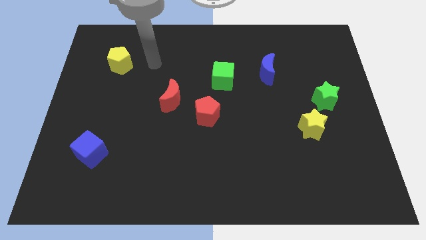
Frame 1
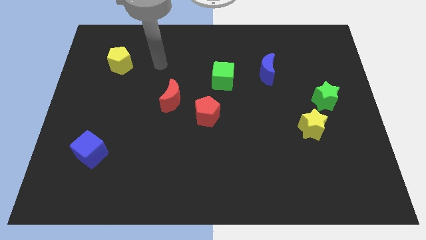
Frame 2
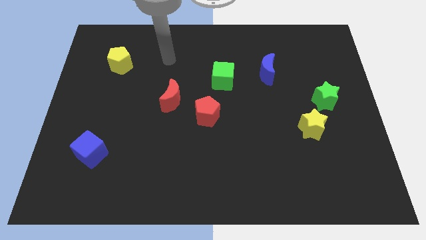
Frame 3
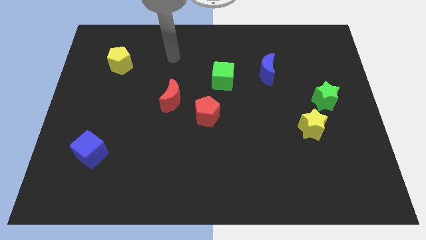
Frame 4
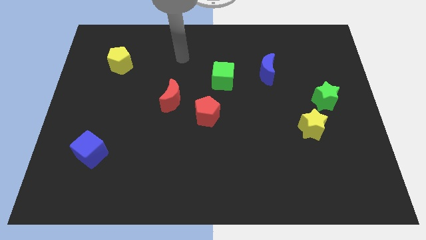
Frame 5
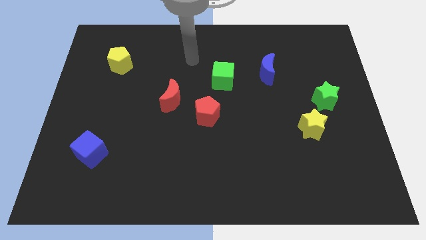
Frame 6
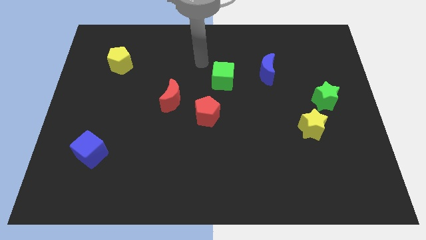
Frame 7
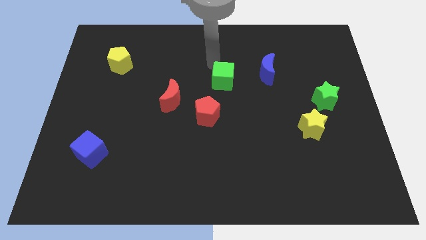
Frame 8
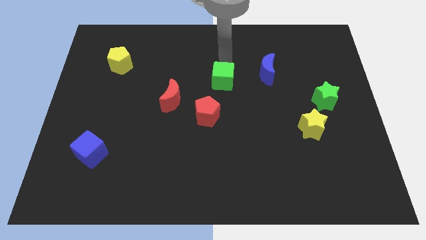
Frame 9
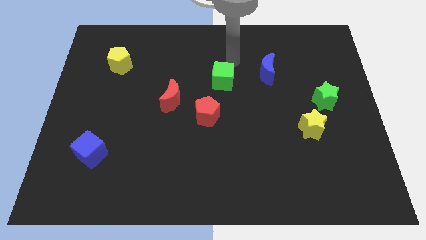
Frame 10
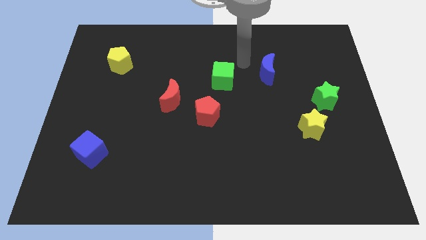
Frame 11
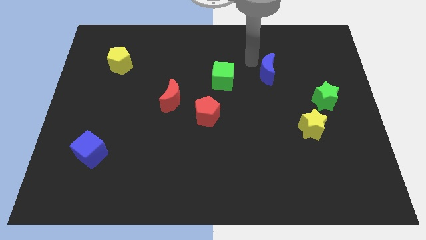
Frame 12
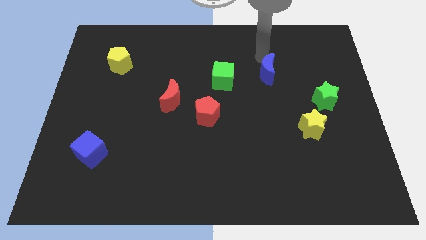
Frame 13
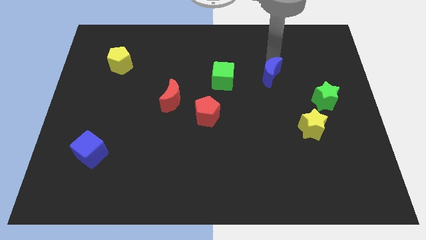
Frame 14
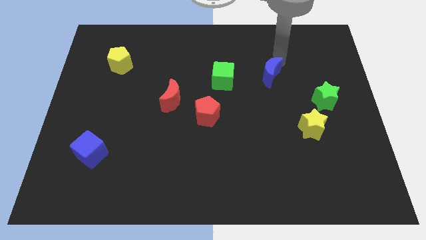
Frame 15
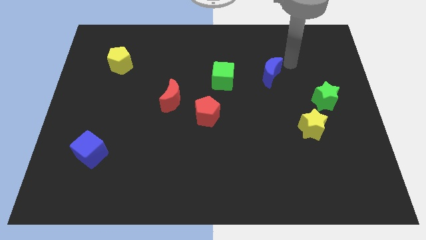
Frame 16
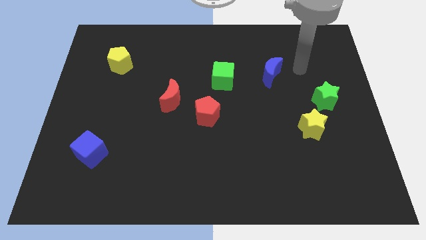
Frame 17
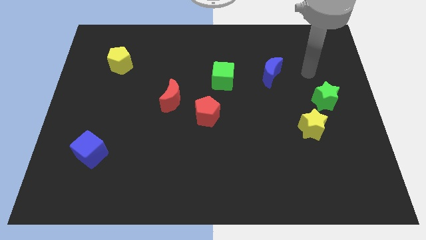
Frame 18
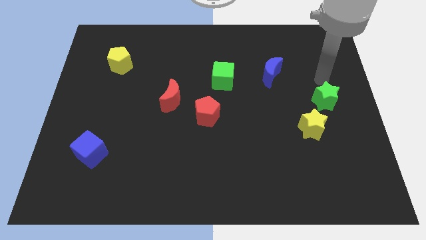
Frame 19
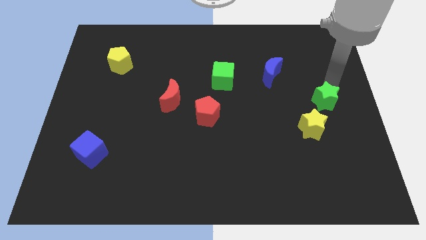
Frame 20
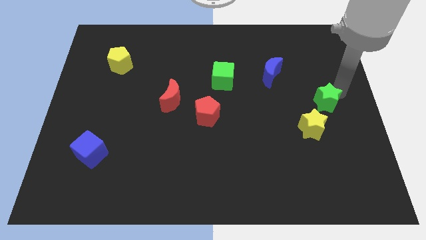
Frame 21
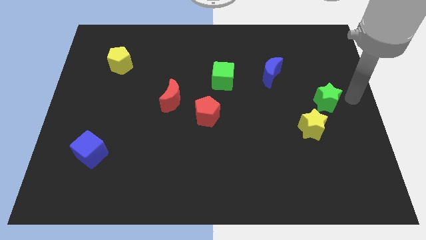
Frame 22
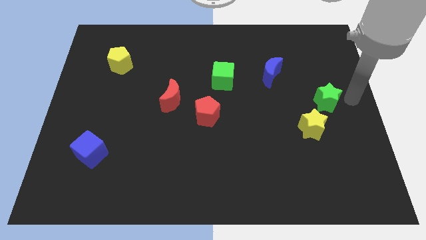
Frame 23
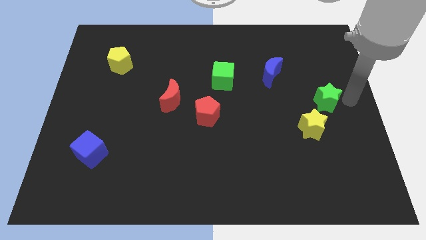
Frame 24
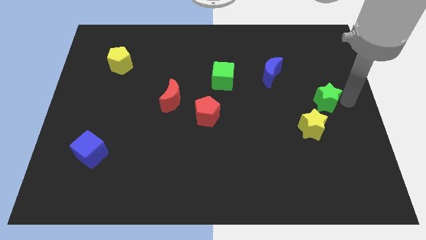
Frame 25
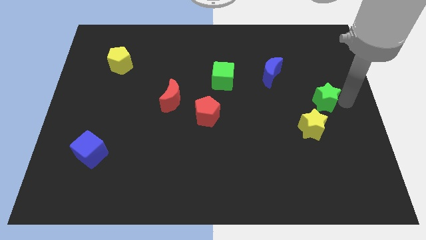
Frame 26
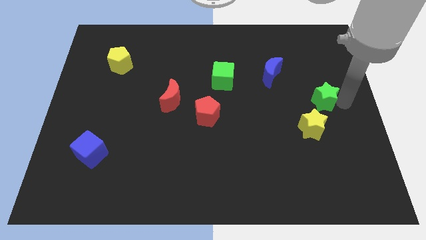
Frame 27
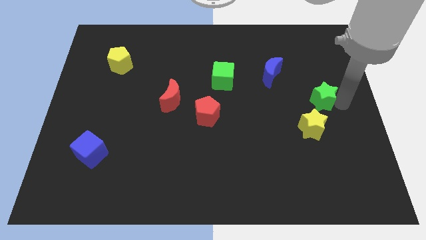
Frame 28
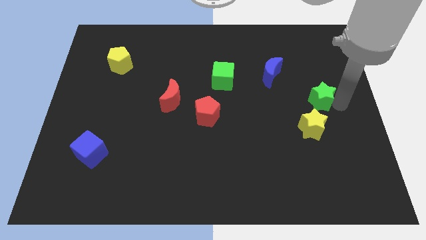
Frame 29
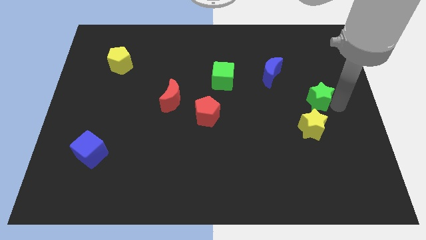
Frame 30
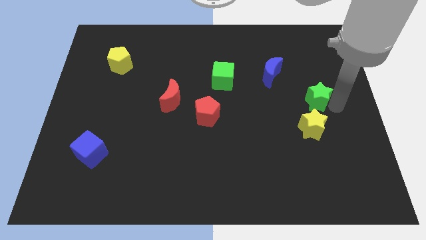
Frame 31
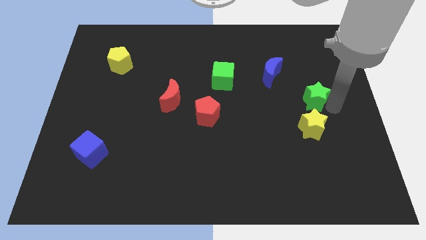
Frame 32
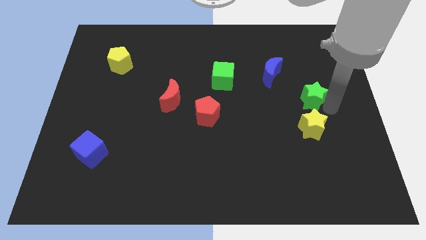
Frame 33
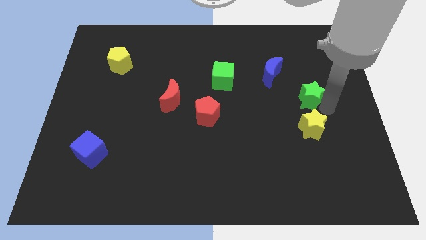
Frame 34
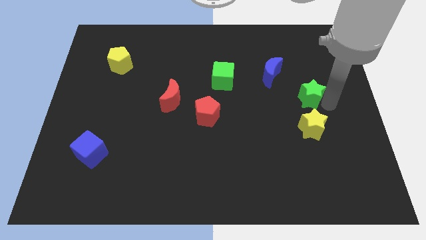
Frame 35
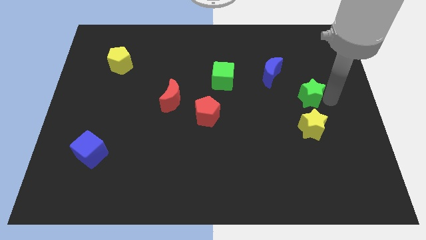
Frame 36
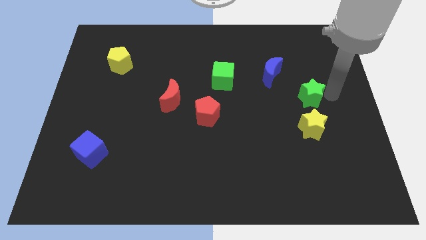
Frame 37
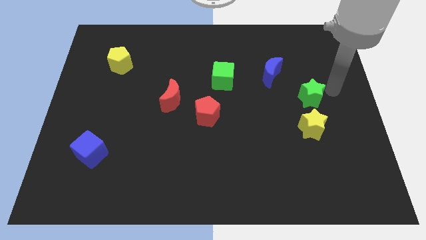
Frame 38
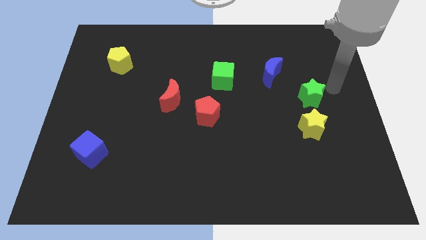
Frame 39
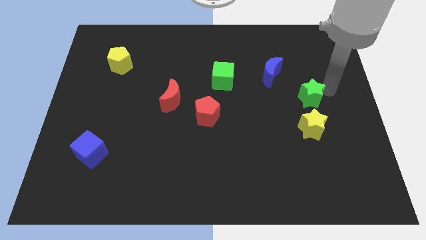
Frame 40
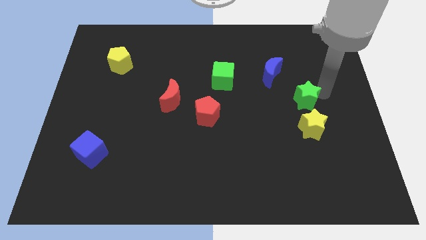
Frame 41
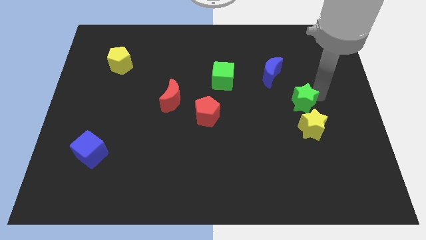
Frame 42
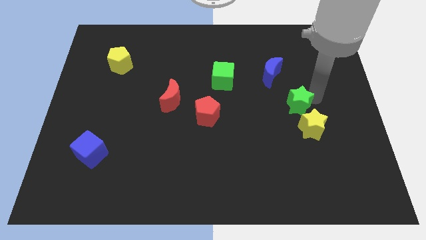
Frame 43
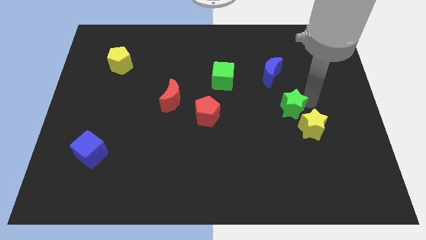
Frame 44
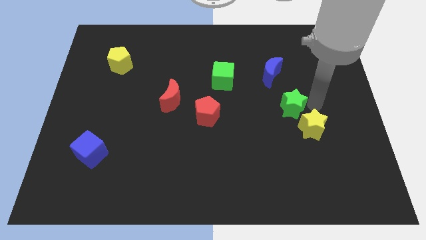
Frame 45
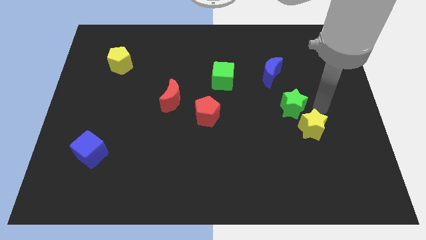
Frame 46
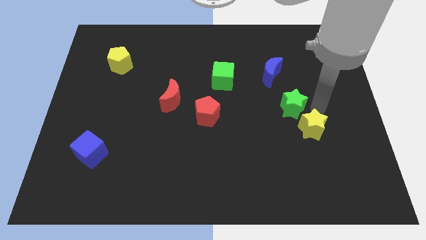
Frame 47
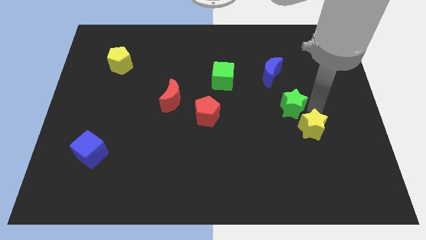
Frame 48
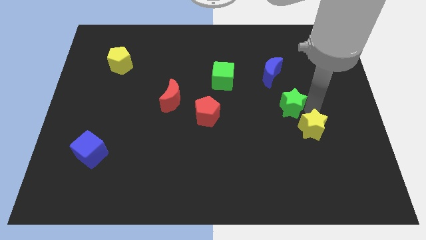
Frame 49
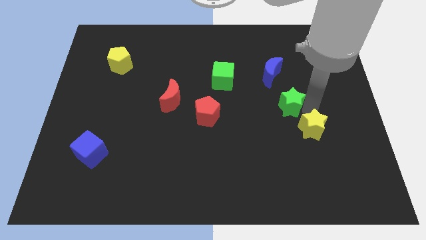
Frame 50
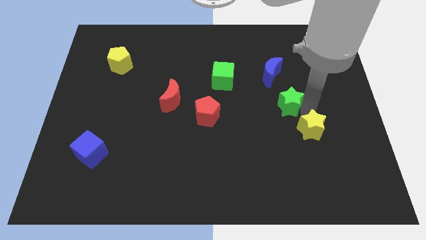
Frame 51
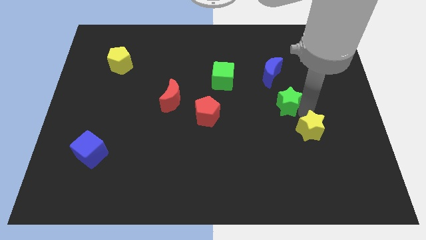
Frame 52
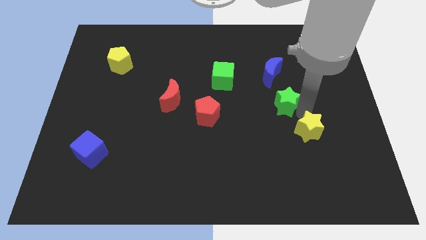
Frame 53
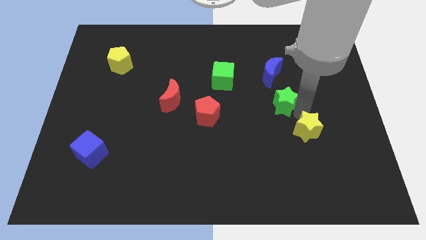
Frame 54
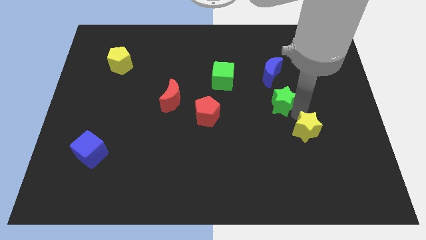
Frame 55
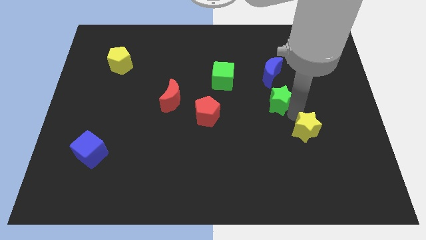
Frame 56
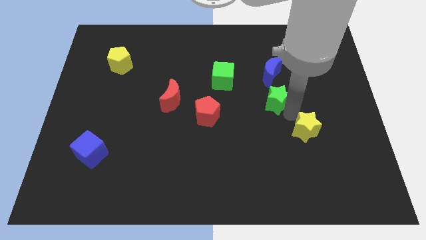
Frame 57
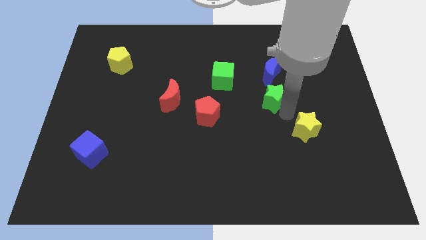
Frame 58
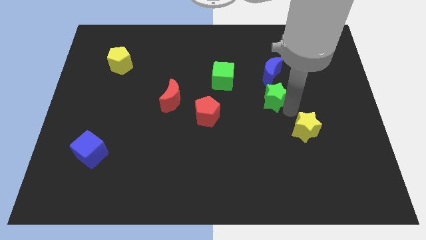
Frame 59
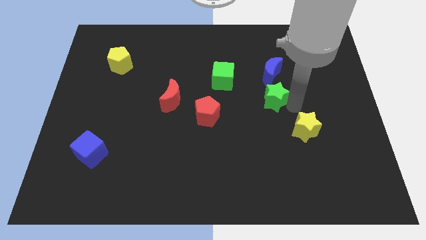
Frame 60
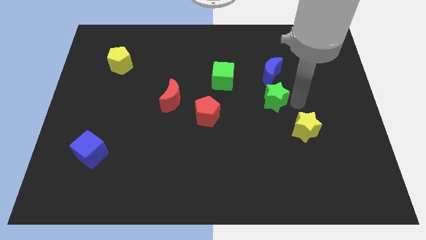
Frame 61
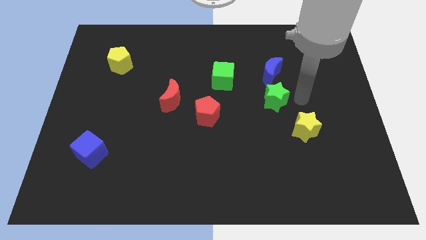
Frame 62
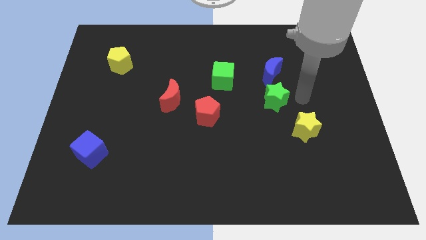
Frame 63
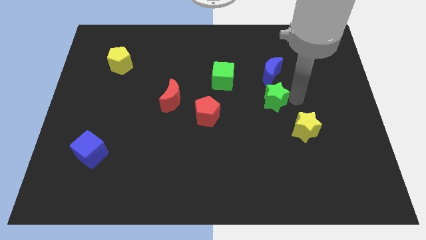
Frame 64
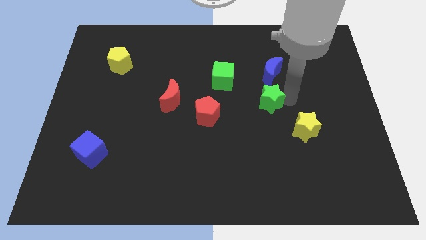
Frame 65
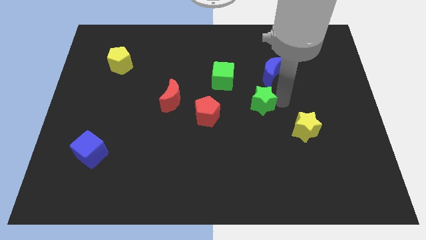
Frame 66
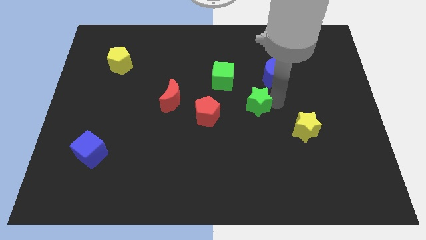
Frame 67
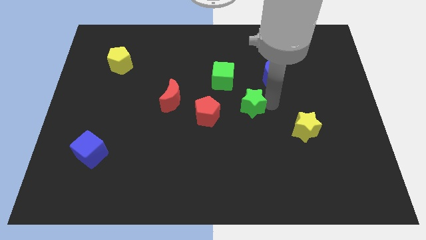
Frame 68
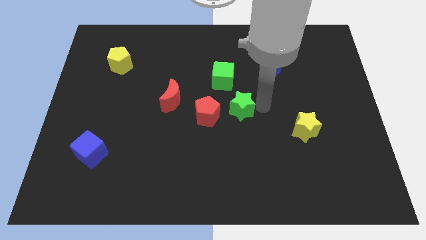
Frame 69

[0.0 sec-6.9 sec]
push the green star left

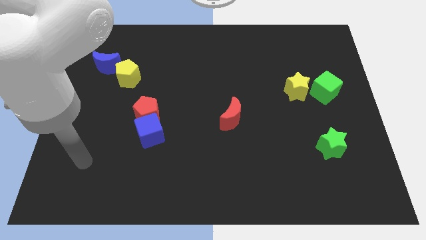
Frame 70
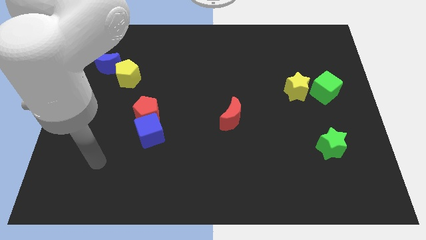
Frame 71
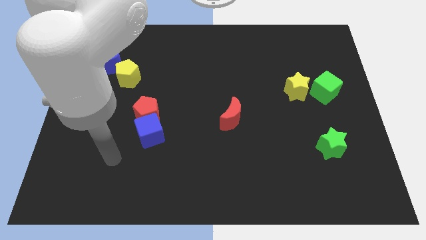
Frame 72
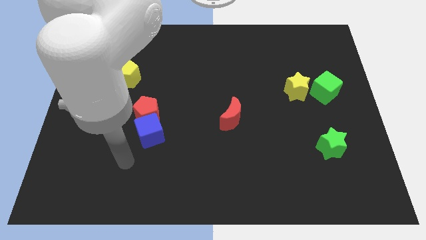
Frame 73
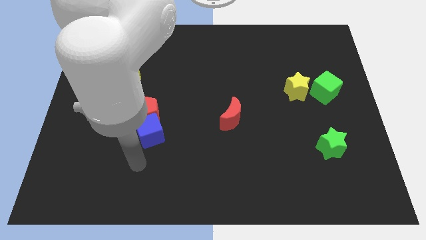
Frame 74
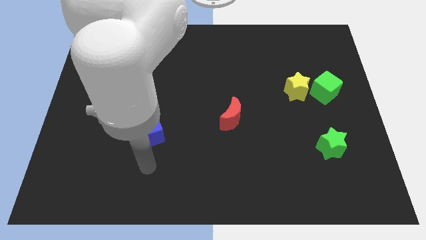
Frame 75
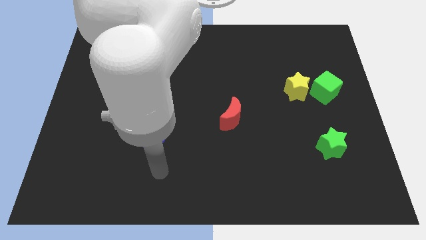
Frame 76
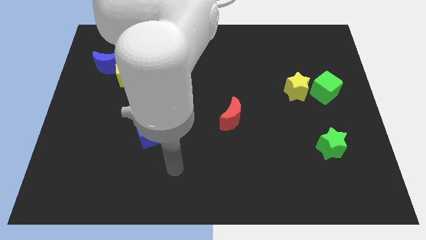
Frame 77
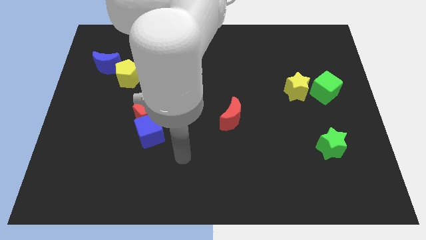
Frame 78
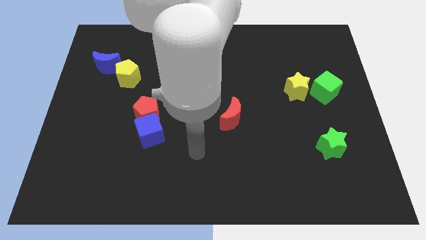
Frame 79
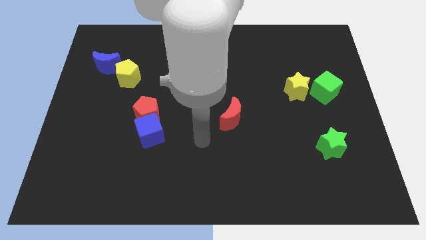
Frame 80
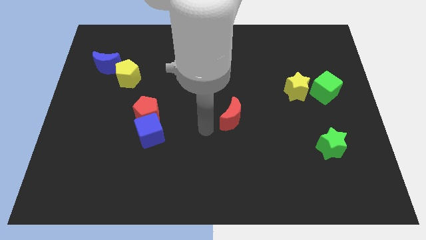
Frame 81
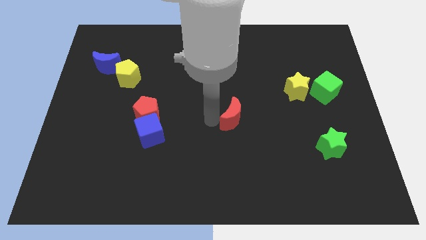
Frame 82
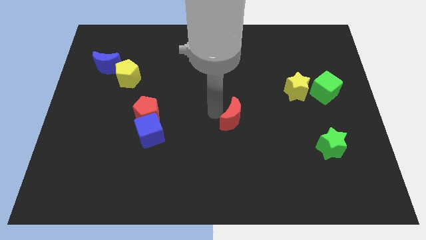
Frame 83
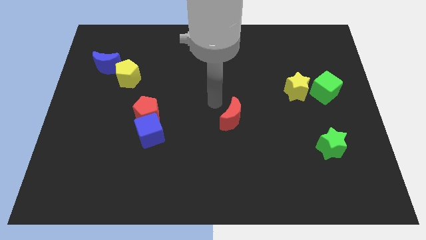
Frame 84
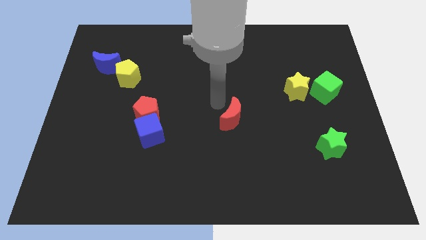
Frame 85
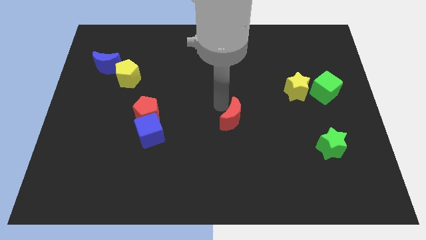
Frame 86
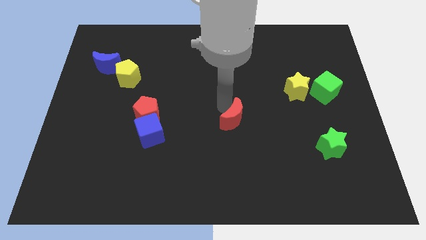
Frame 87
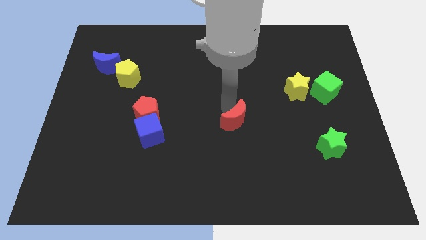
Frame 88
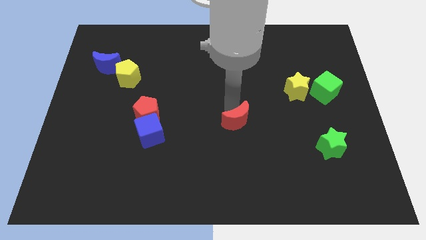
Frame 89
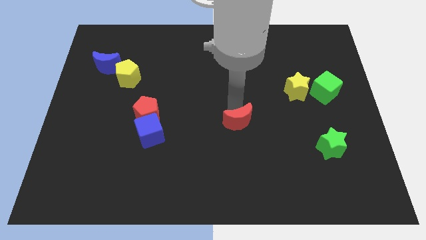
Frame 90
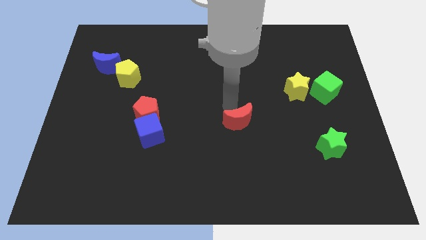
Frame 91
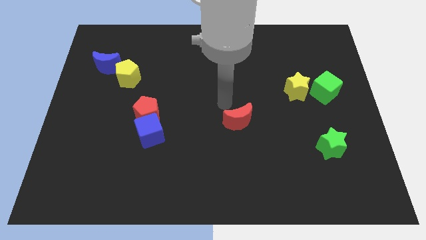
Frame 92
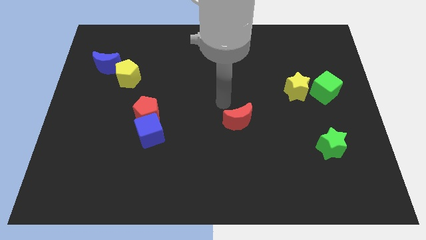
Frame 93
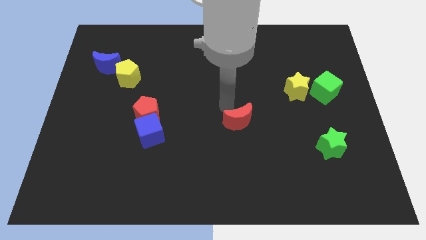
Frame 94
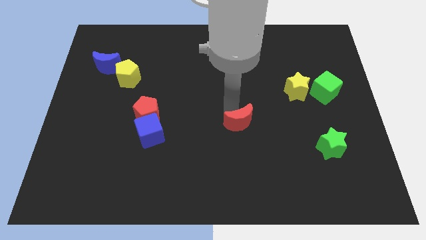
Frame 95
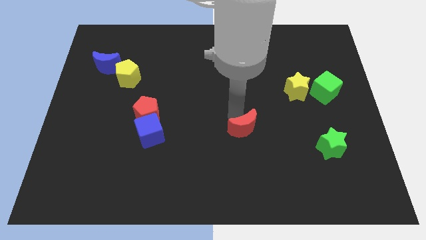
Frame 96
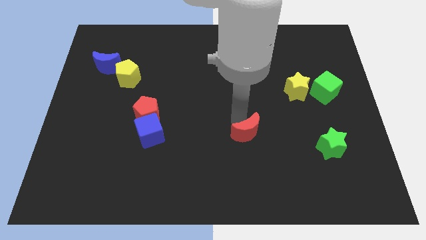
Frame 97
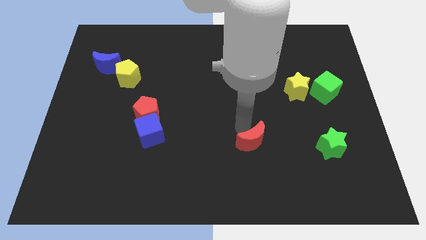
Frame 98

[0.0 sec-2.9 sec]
move the red moon a bit diagonally down and right
